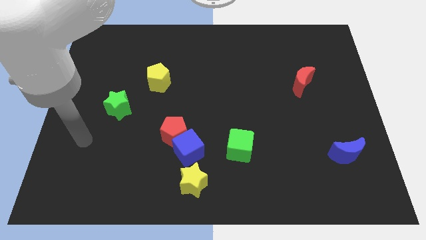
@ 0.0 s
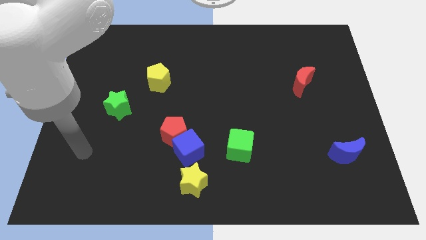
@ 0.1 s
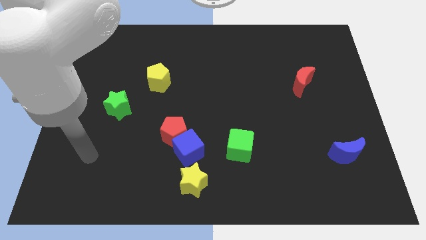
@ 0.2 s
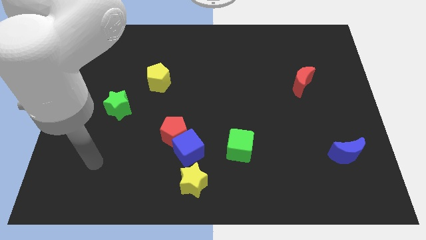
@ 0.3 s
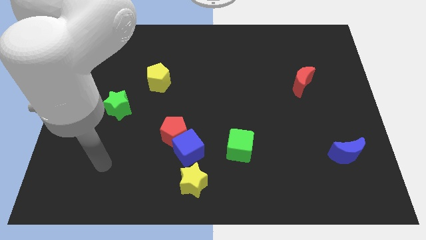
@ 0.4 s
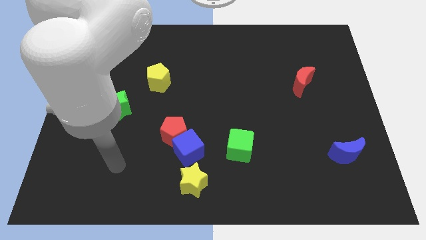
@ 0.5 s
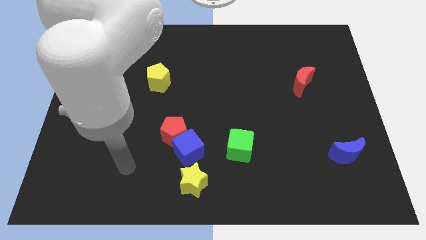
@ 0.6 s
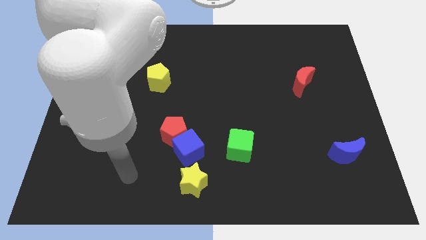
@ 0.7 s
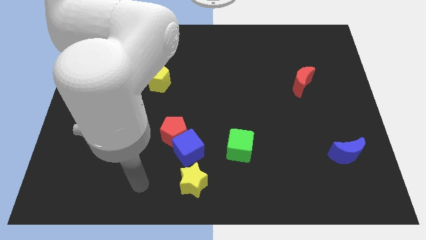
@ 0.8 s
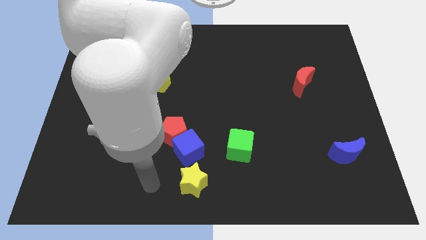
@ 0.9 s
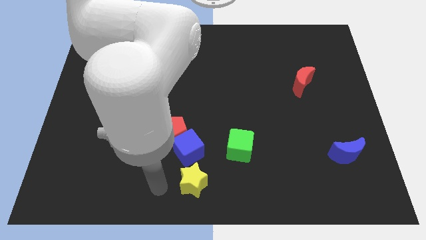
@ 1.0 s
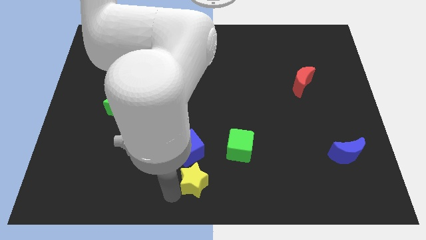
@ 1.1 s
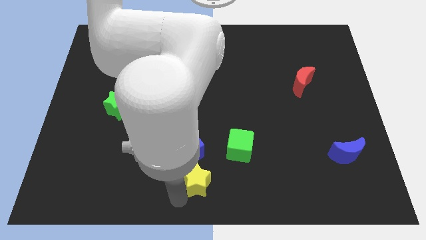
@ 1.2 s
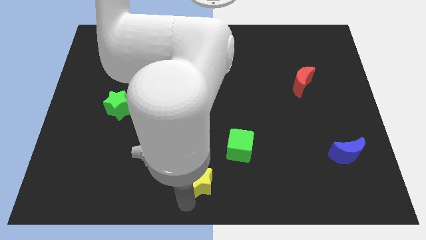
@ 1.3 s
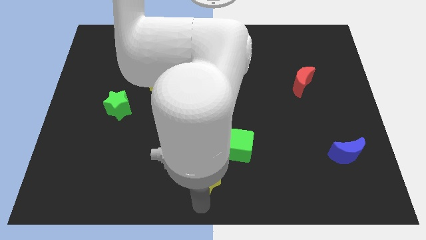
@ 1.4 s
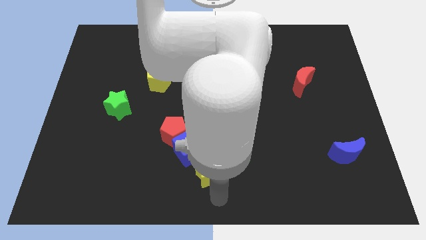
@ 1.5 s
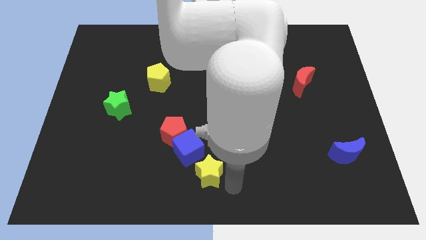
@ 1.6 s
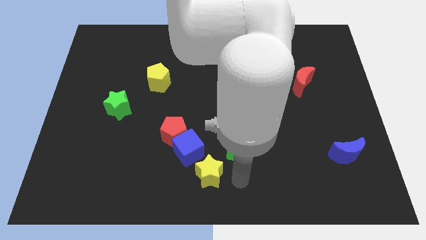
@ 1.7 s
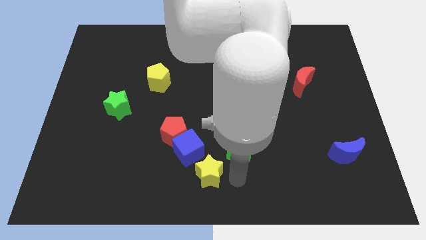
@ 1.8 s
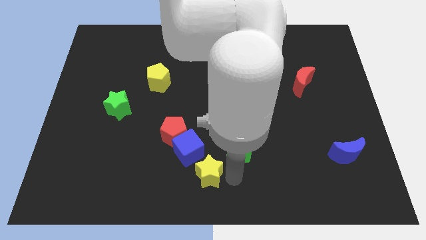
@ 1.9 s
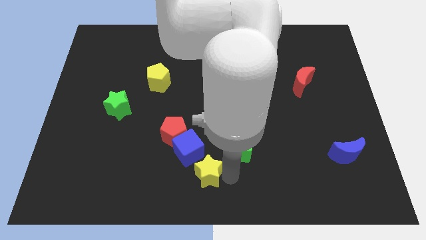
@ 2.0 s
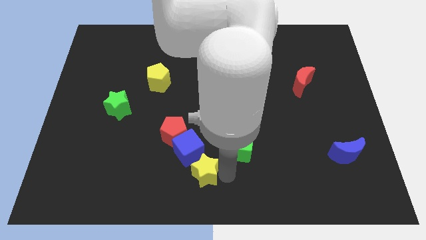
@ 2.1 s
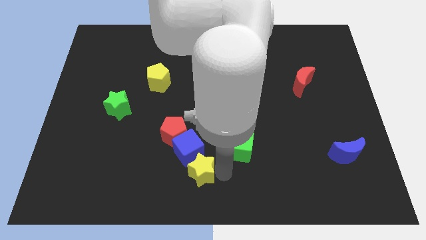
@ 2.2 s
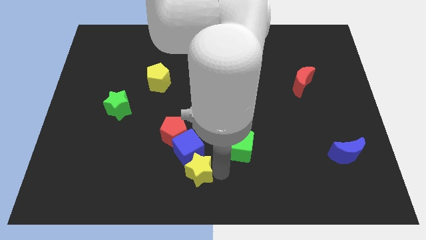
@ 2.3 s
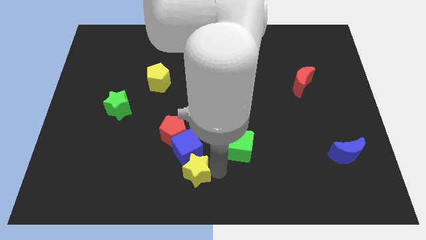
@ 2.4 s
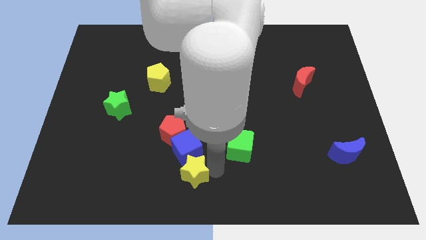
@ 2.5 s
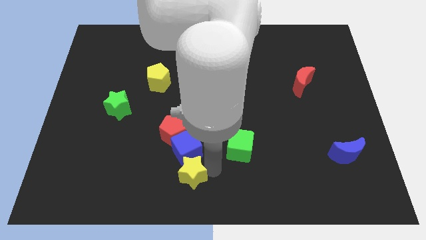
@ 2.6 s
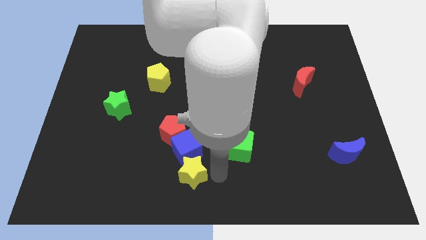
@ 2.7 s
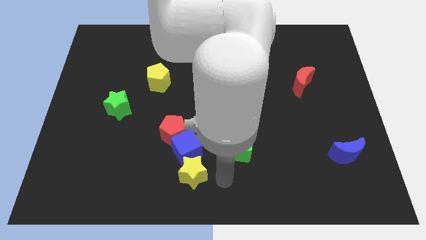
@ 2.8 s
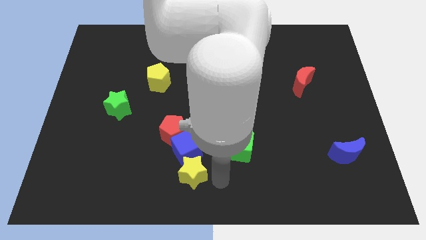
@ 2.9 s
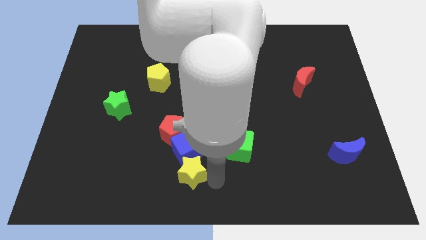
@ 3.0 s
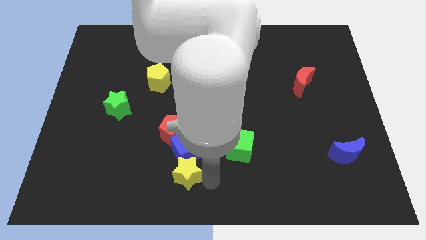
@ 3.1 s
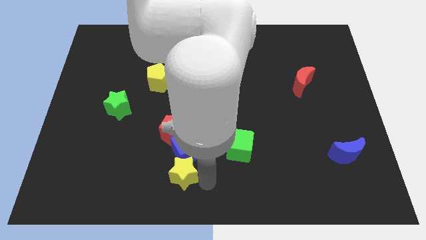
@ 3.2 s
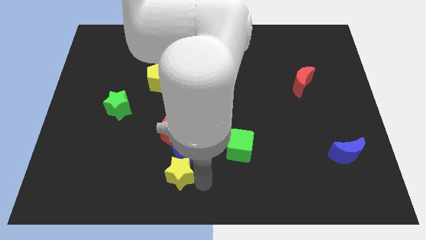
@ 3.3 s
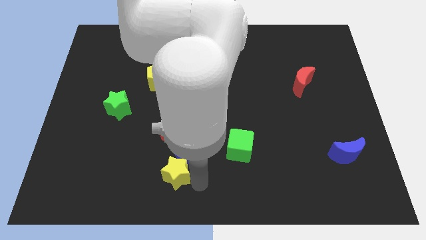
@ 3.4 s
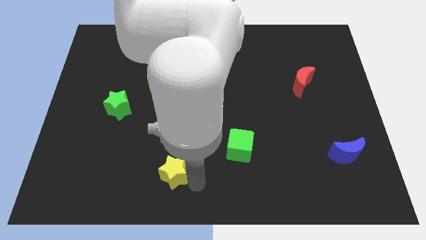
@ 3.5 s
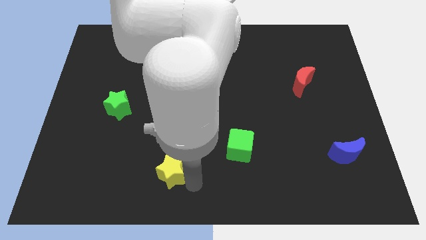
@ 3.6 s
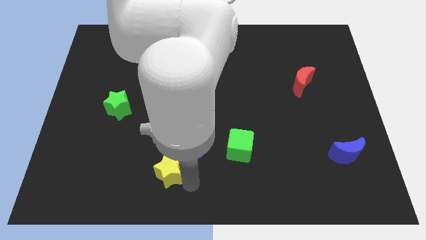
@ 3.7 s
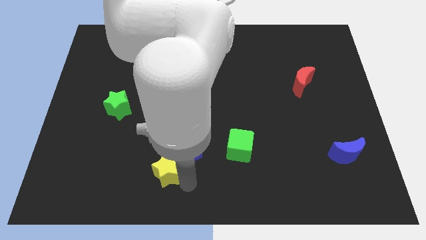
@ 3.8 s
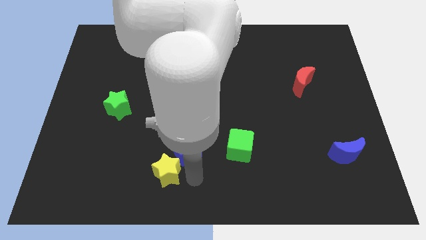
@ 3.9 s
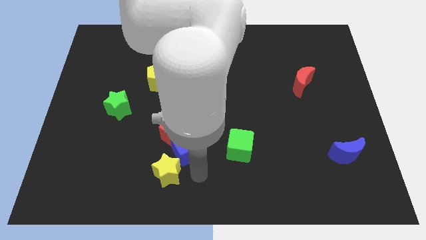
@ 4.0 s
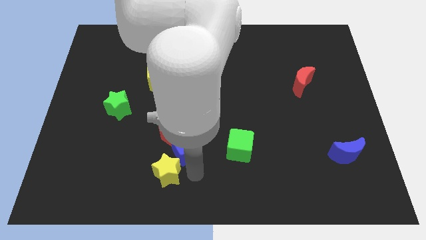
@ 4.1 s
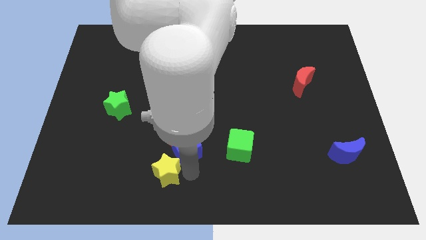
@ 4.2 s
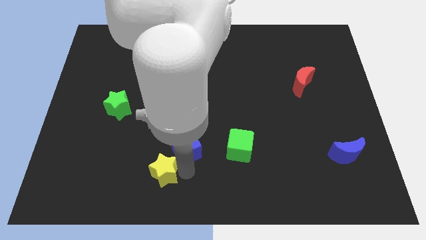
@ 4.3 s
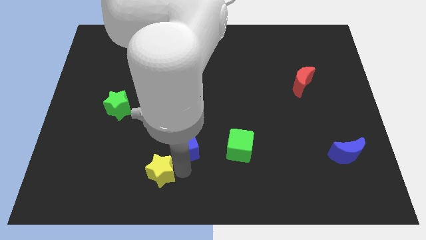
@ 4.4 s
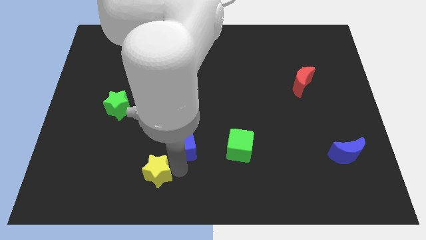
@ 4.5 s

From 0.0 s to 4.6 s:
slightly push the yellow star to the left

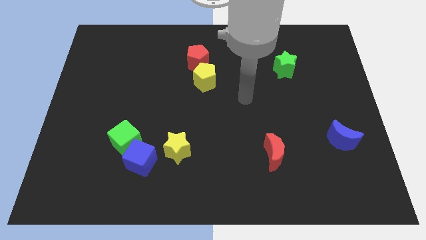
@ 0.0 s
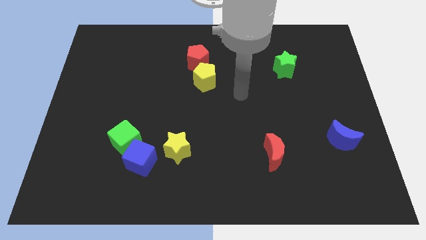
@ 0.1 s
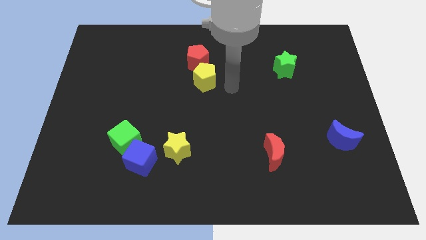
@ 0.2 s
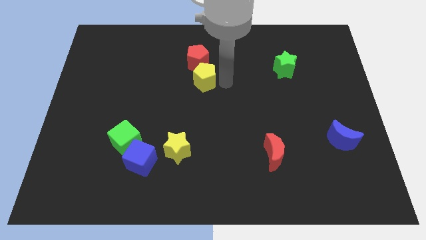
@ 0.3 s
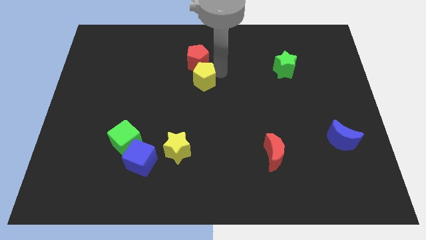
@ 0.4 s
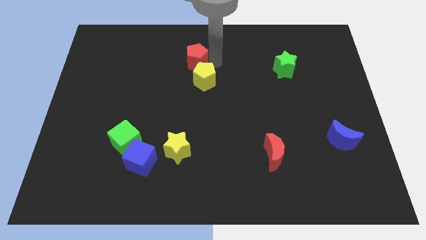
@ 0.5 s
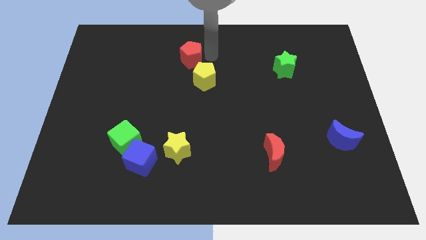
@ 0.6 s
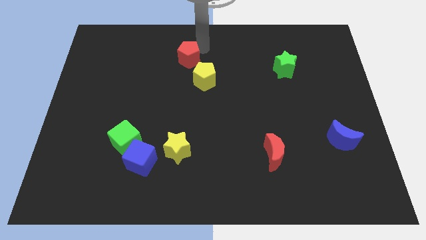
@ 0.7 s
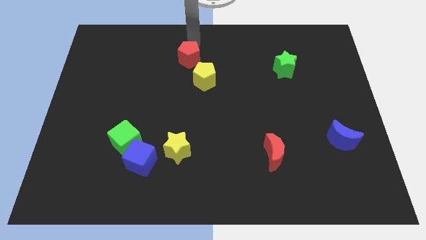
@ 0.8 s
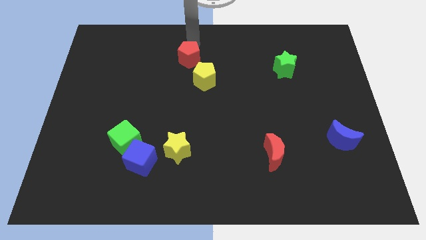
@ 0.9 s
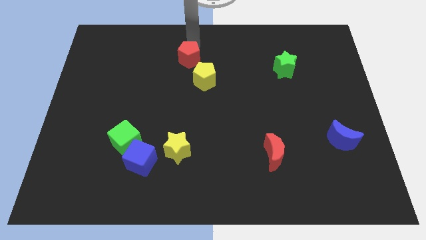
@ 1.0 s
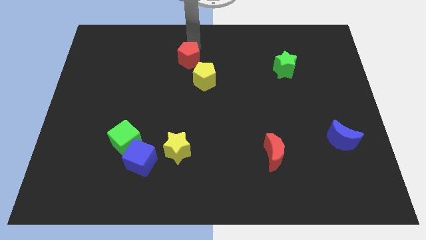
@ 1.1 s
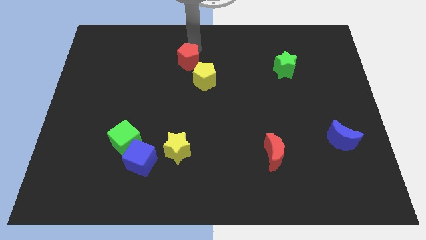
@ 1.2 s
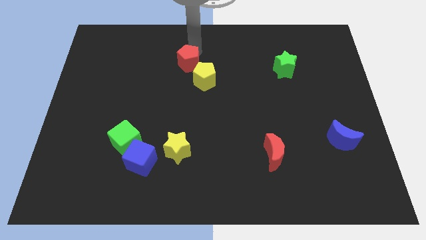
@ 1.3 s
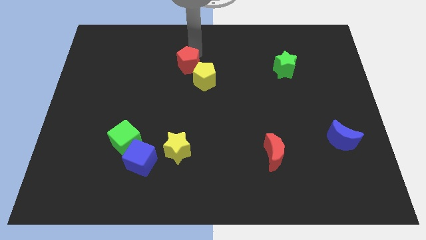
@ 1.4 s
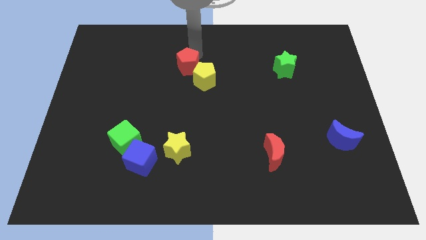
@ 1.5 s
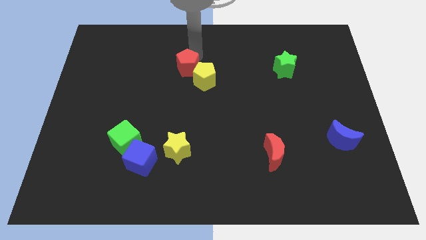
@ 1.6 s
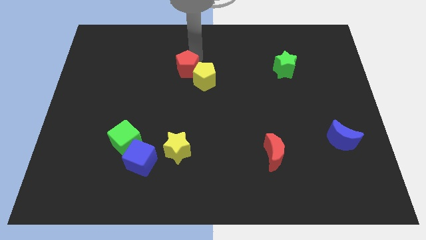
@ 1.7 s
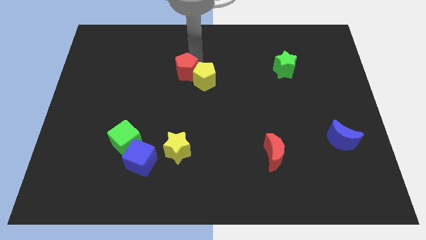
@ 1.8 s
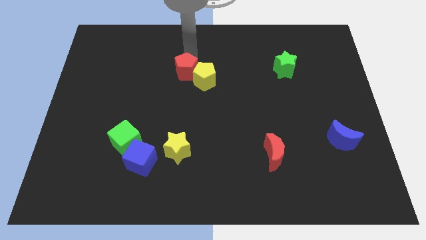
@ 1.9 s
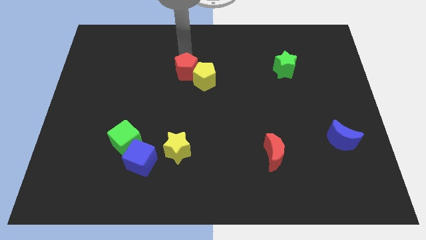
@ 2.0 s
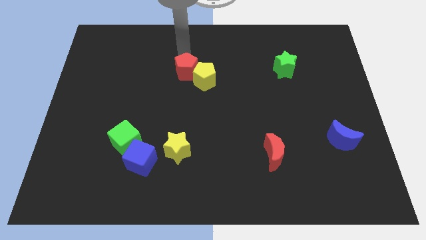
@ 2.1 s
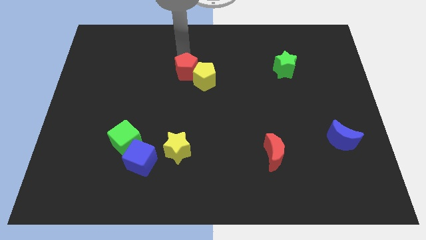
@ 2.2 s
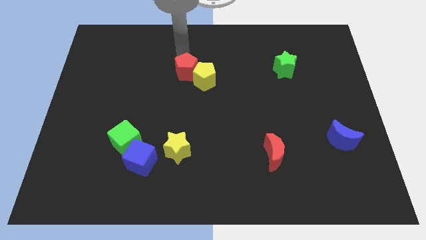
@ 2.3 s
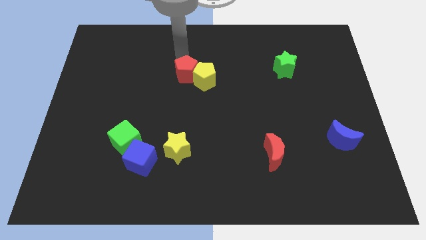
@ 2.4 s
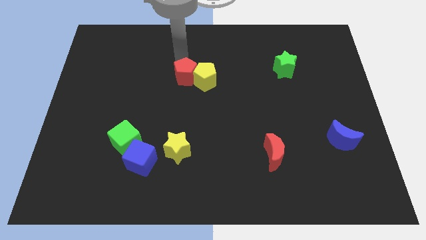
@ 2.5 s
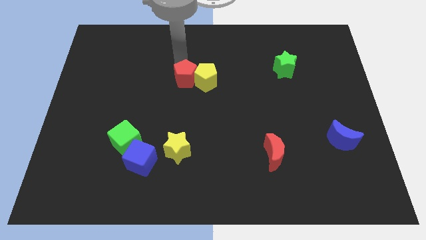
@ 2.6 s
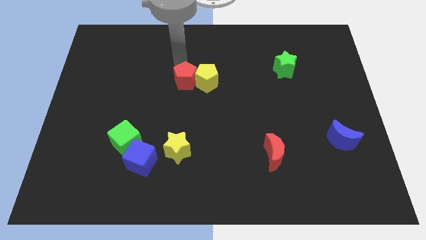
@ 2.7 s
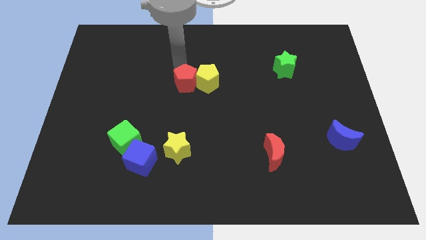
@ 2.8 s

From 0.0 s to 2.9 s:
slightly slide the red pentagon downwards
